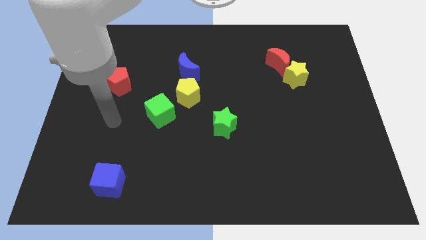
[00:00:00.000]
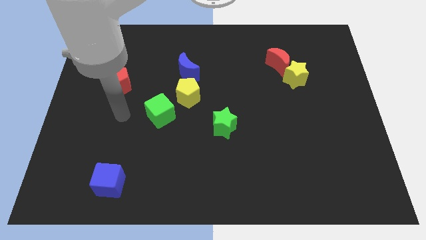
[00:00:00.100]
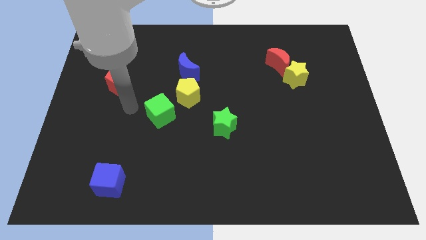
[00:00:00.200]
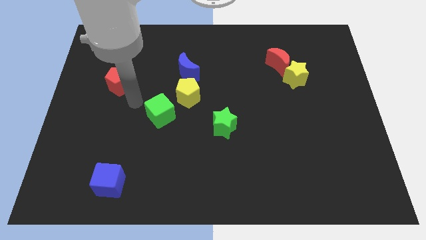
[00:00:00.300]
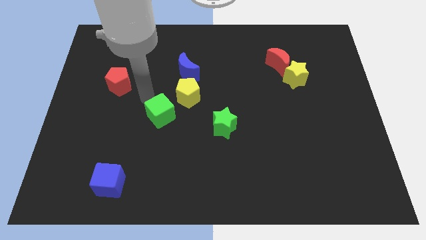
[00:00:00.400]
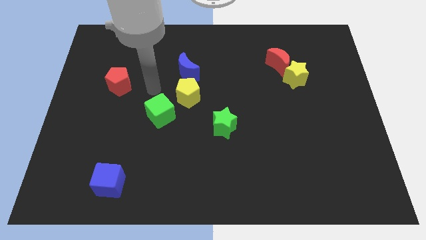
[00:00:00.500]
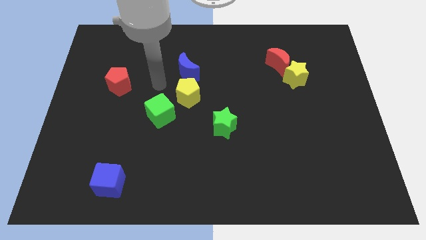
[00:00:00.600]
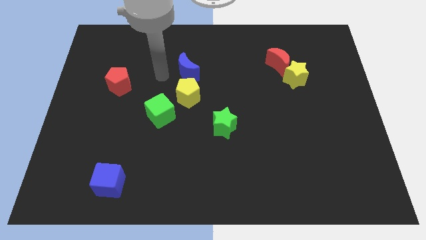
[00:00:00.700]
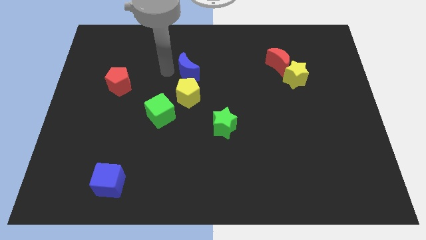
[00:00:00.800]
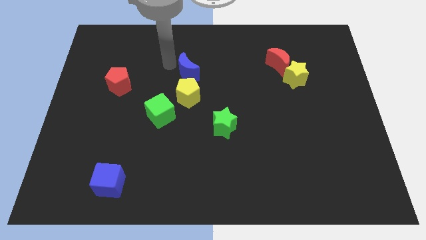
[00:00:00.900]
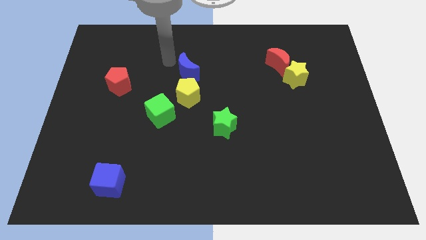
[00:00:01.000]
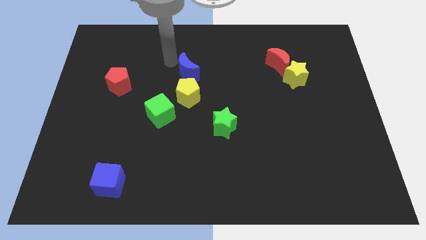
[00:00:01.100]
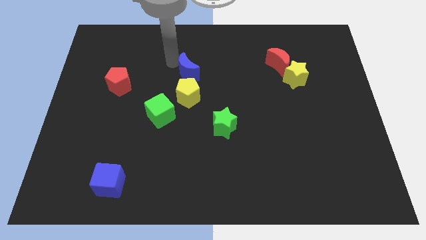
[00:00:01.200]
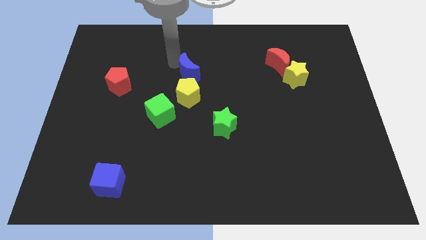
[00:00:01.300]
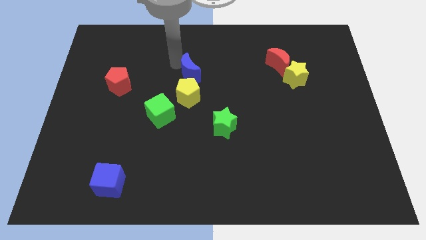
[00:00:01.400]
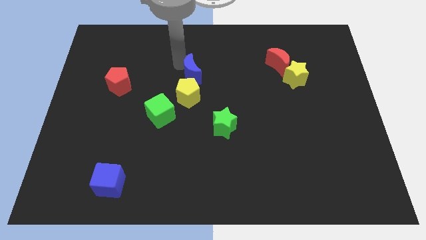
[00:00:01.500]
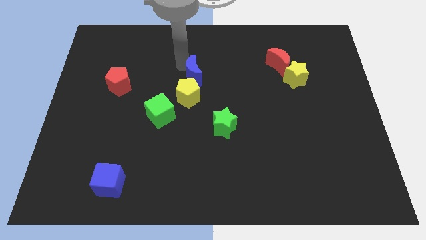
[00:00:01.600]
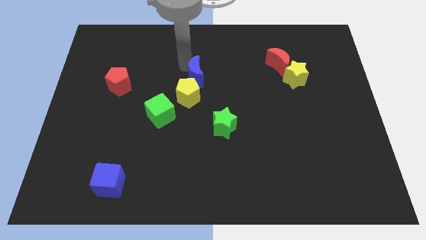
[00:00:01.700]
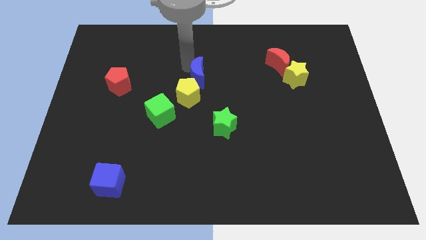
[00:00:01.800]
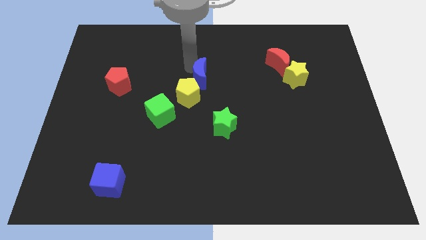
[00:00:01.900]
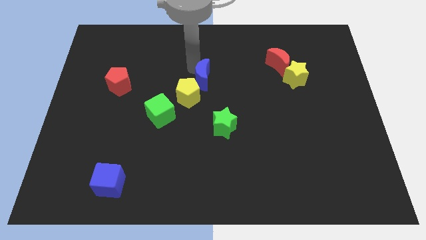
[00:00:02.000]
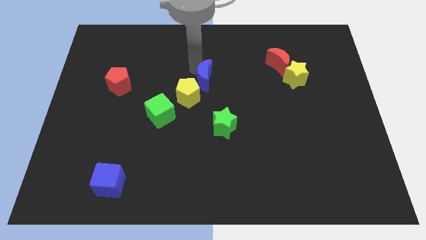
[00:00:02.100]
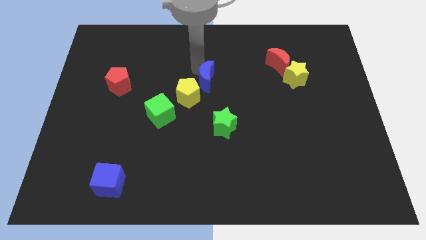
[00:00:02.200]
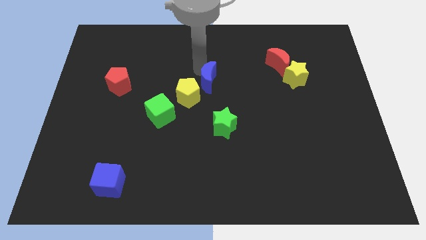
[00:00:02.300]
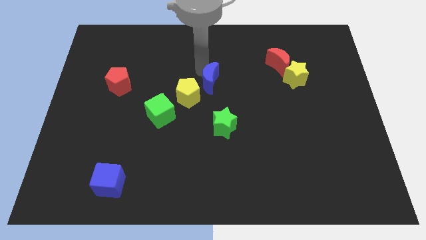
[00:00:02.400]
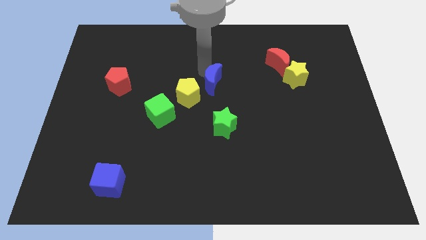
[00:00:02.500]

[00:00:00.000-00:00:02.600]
push the blue moon diagonally down and right slightly

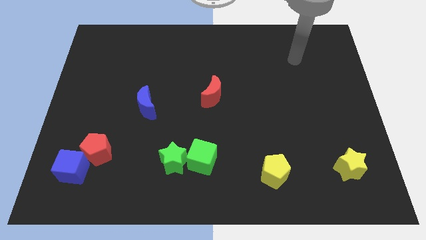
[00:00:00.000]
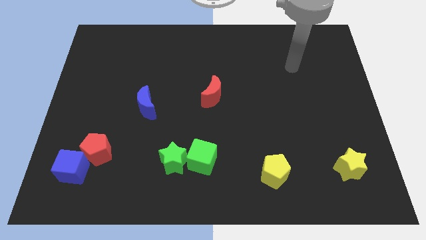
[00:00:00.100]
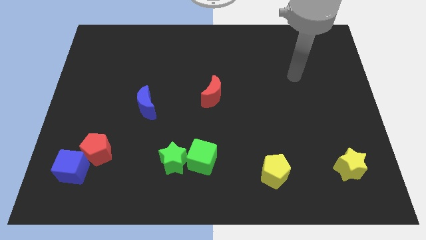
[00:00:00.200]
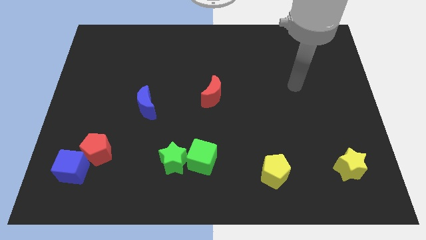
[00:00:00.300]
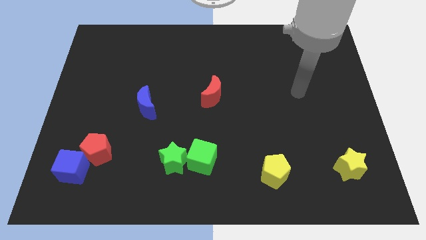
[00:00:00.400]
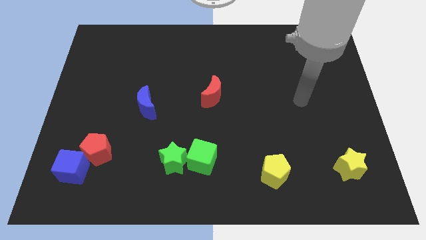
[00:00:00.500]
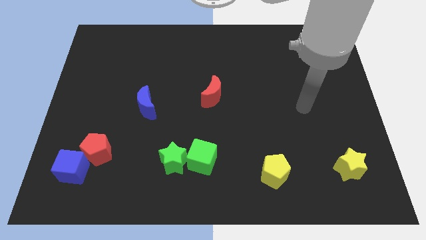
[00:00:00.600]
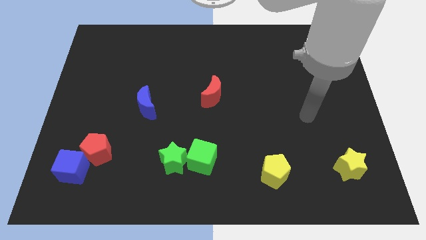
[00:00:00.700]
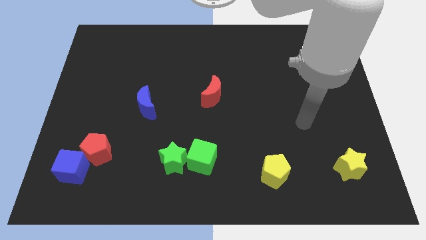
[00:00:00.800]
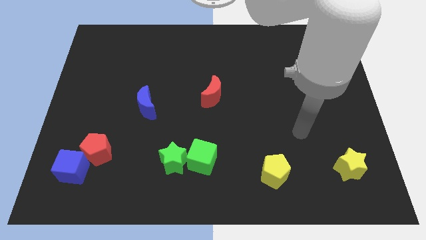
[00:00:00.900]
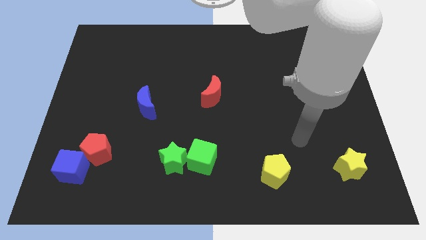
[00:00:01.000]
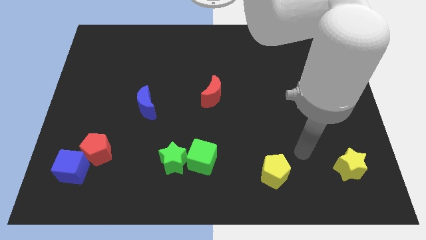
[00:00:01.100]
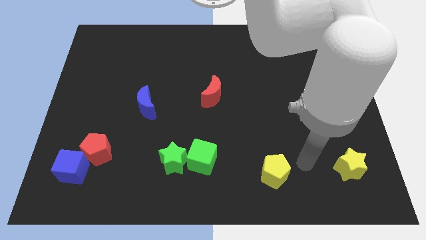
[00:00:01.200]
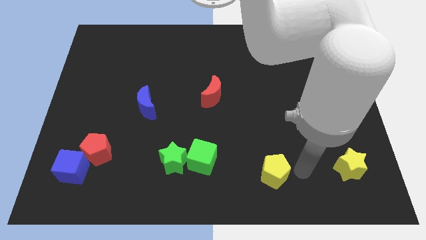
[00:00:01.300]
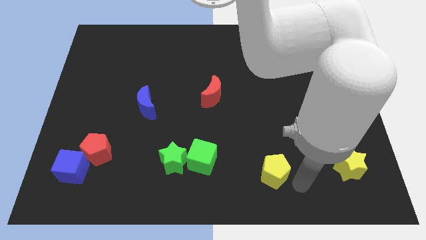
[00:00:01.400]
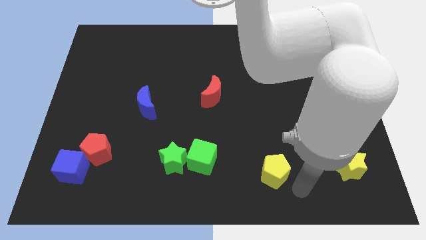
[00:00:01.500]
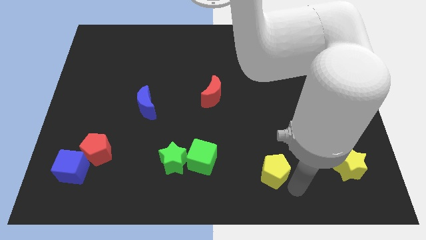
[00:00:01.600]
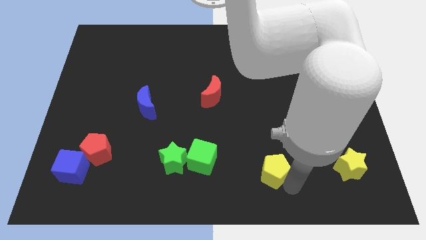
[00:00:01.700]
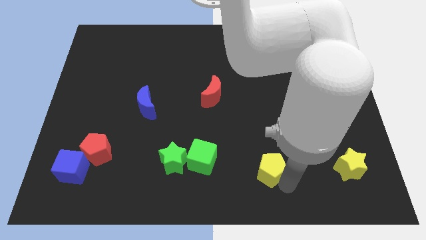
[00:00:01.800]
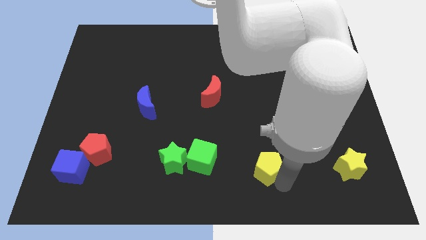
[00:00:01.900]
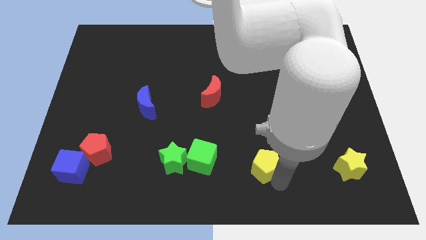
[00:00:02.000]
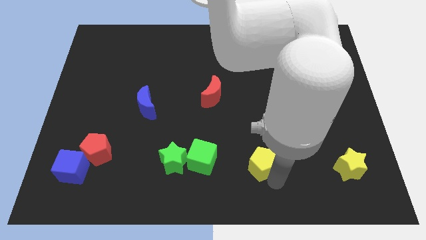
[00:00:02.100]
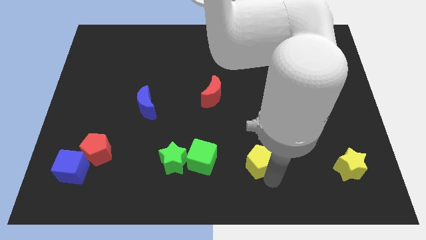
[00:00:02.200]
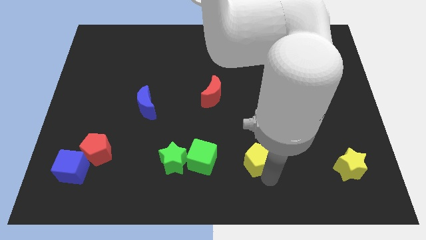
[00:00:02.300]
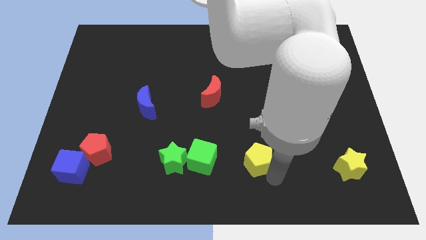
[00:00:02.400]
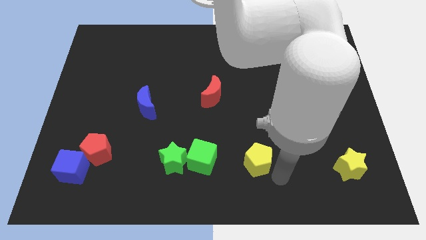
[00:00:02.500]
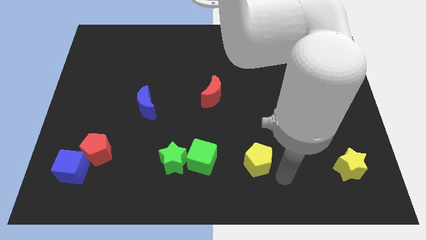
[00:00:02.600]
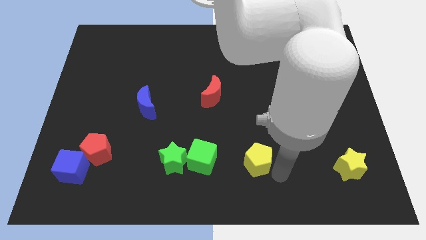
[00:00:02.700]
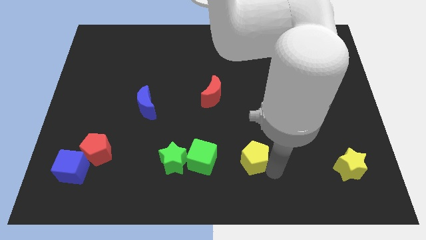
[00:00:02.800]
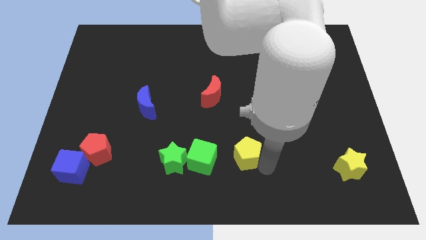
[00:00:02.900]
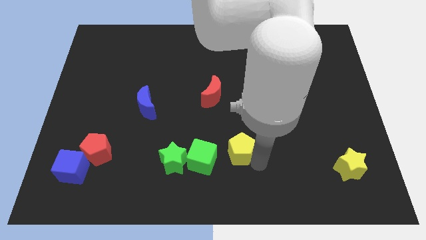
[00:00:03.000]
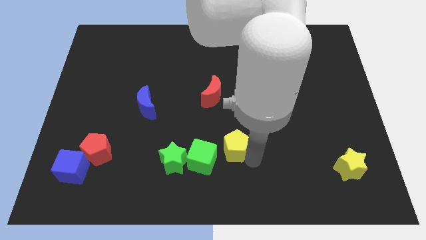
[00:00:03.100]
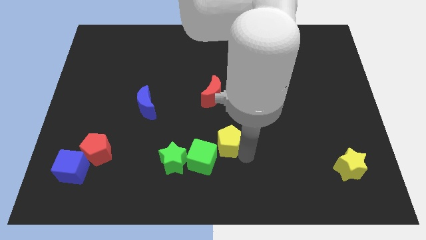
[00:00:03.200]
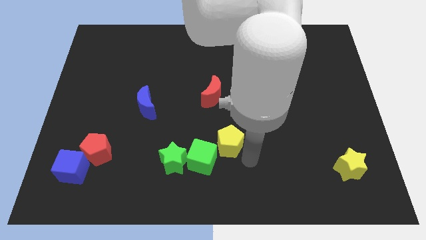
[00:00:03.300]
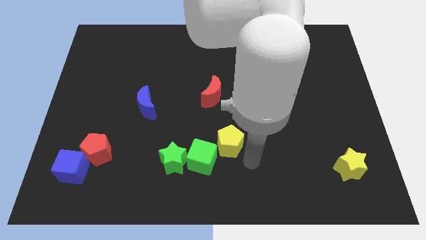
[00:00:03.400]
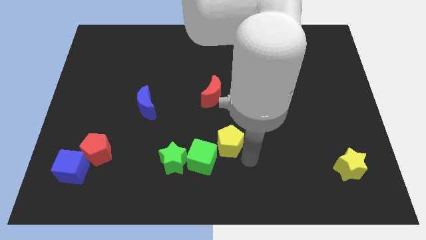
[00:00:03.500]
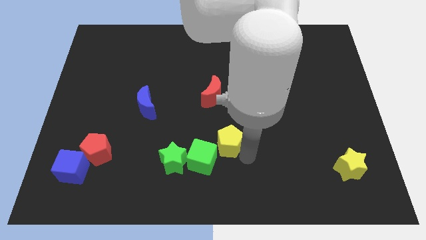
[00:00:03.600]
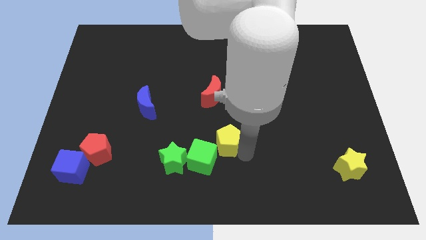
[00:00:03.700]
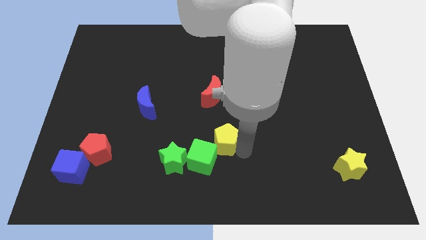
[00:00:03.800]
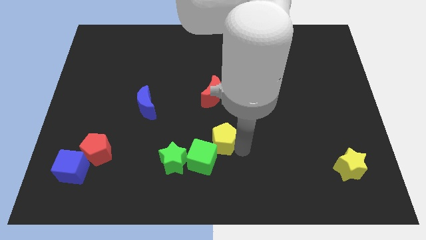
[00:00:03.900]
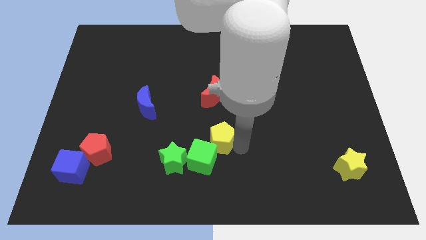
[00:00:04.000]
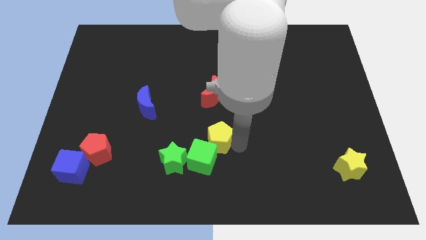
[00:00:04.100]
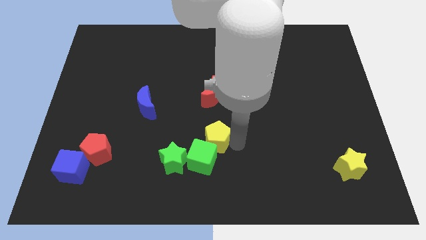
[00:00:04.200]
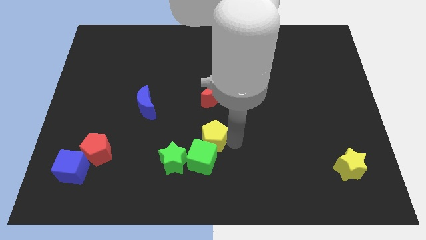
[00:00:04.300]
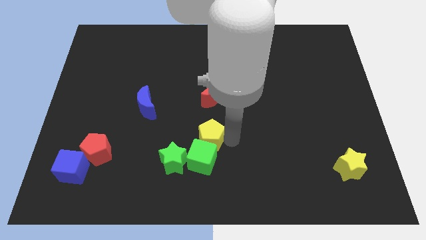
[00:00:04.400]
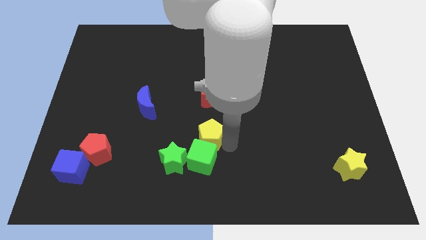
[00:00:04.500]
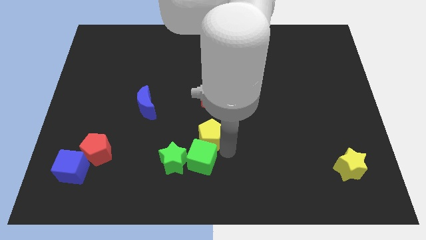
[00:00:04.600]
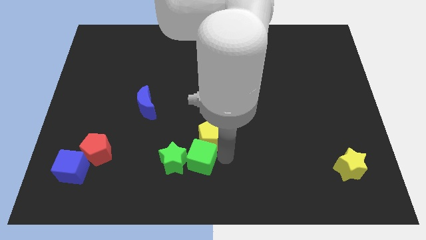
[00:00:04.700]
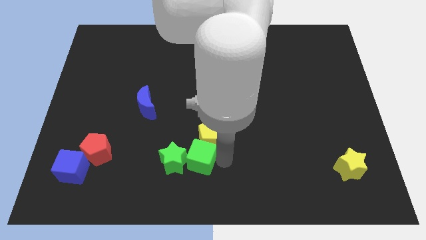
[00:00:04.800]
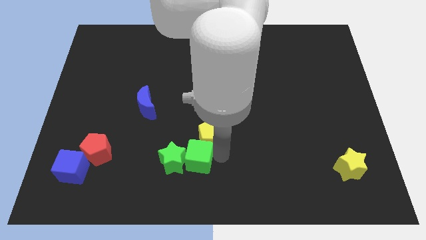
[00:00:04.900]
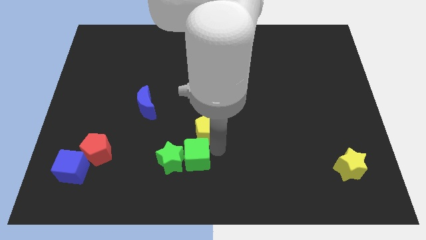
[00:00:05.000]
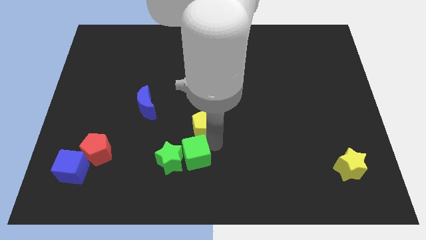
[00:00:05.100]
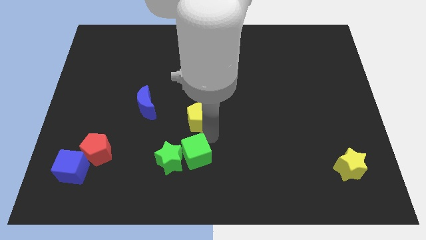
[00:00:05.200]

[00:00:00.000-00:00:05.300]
move the yellow pentagon upwards and to the left diagonally

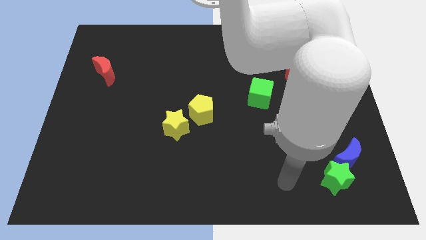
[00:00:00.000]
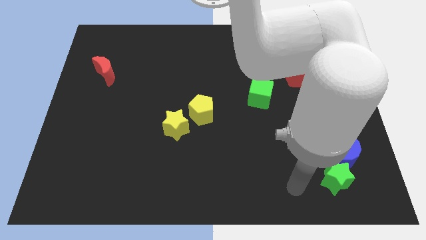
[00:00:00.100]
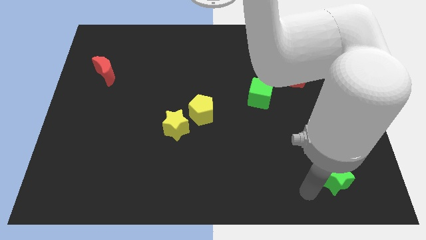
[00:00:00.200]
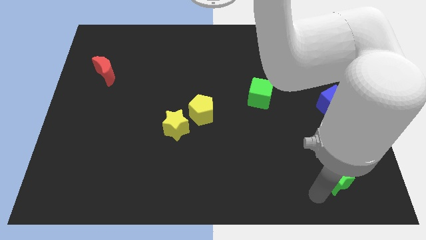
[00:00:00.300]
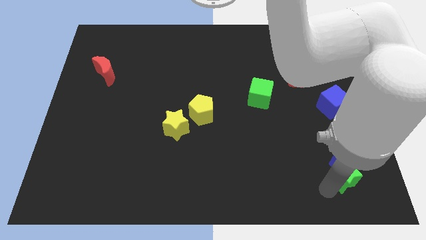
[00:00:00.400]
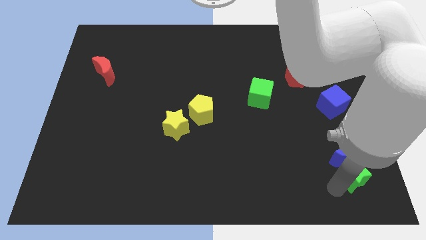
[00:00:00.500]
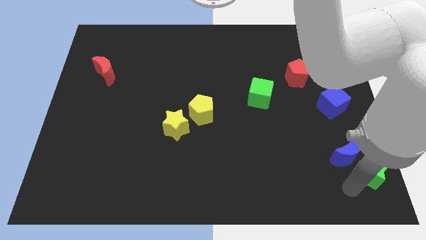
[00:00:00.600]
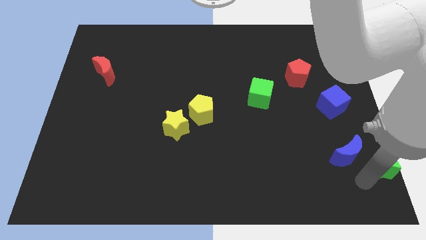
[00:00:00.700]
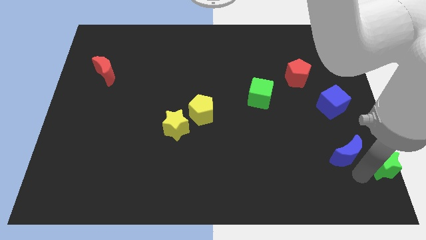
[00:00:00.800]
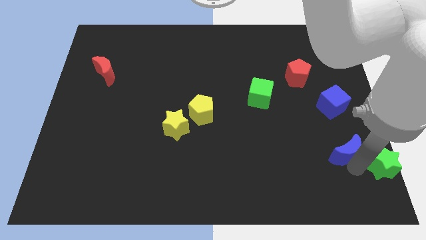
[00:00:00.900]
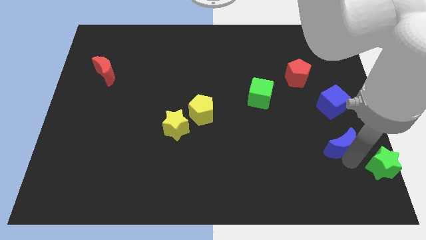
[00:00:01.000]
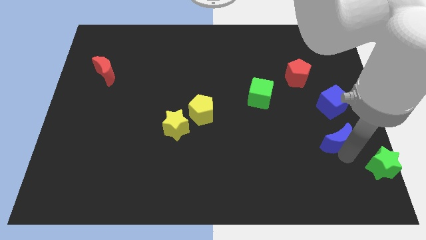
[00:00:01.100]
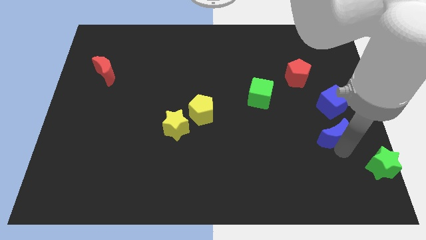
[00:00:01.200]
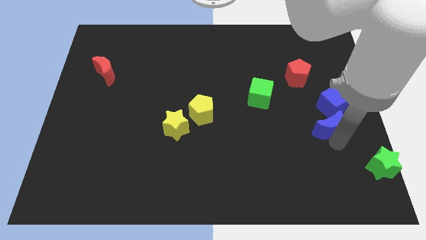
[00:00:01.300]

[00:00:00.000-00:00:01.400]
slide the blue moon a little bit upwards
